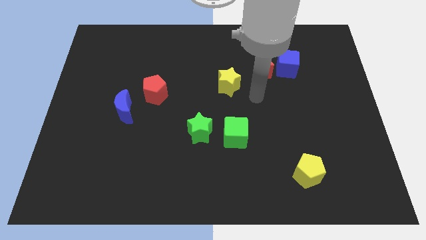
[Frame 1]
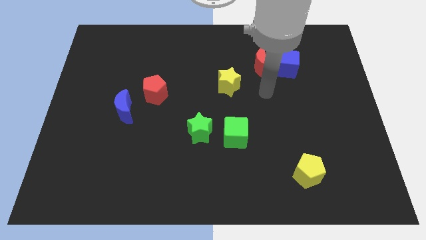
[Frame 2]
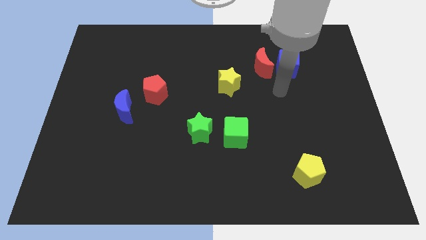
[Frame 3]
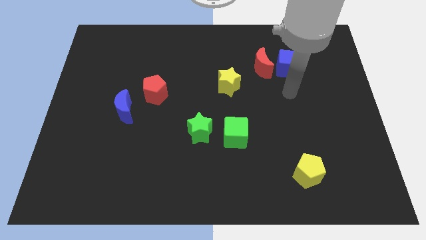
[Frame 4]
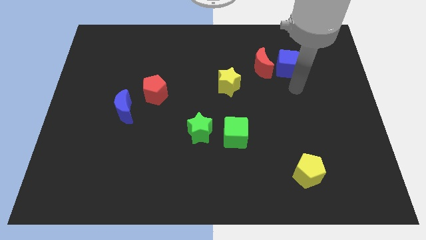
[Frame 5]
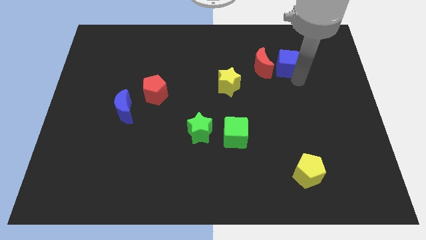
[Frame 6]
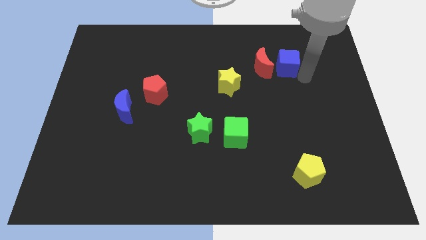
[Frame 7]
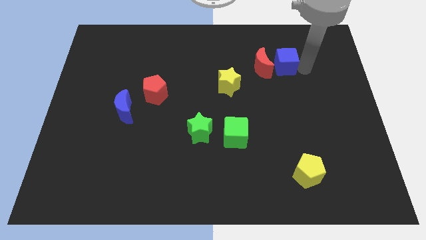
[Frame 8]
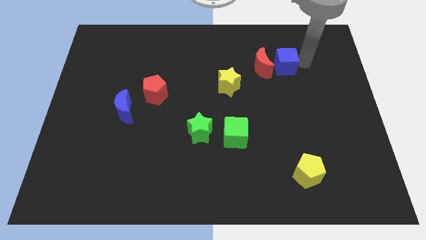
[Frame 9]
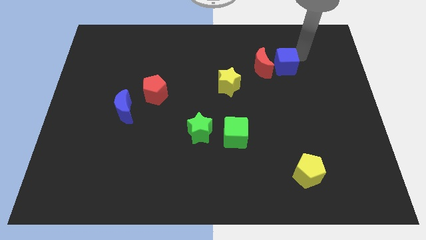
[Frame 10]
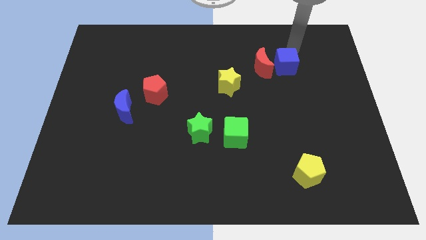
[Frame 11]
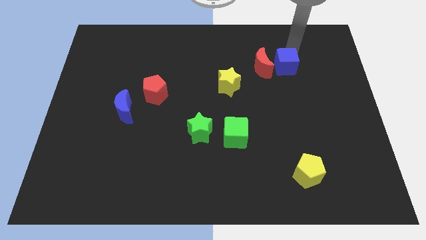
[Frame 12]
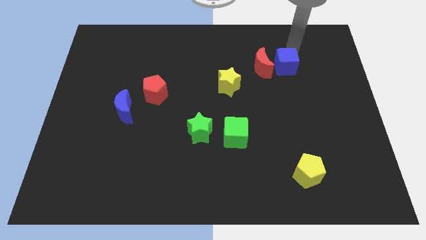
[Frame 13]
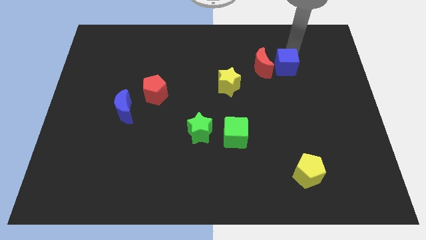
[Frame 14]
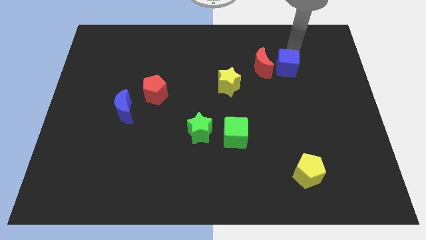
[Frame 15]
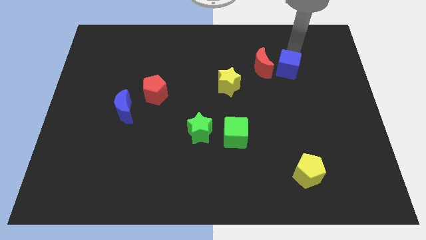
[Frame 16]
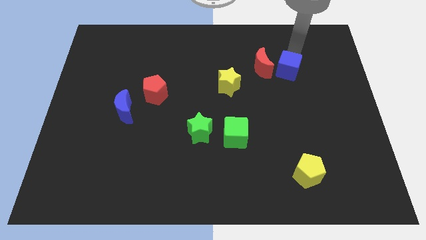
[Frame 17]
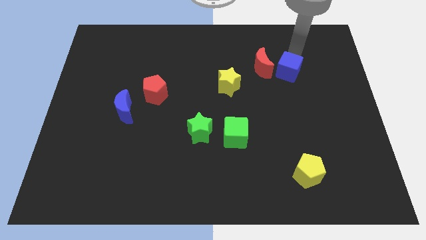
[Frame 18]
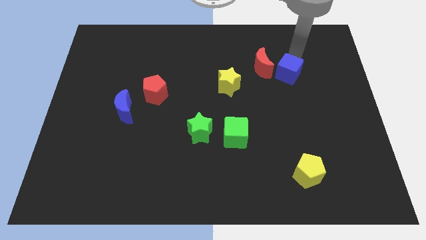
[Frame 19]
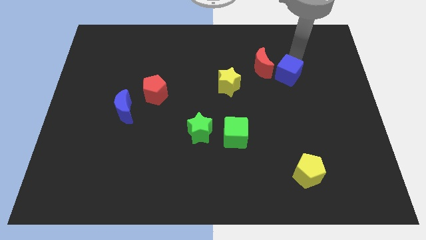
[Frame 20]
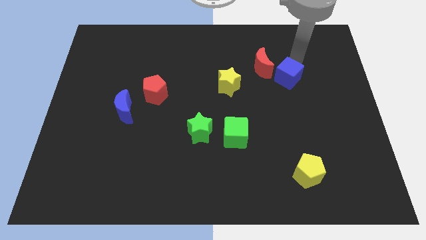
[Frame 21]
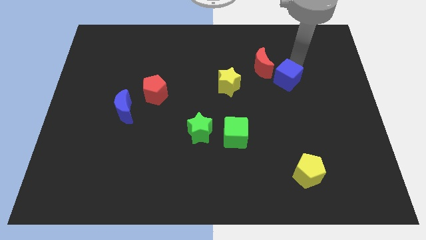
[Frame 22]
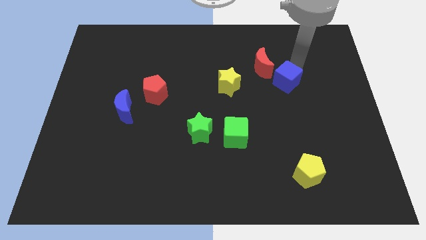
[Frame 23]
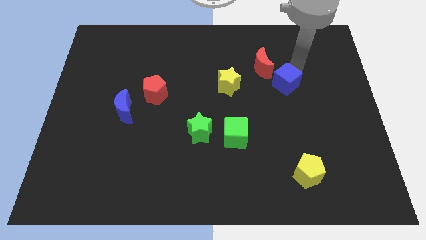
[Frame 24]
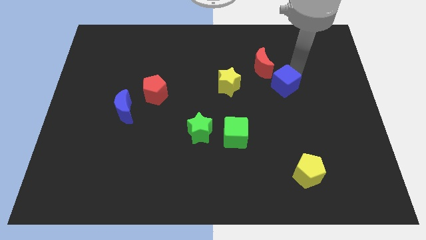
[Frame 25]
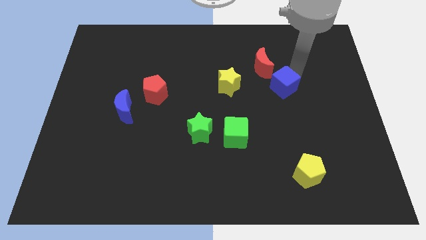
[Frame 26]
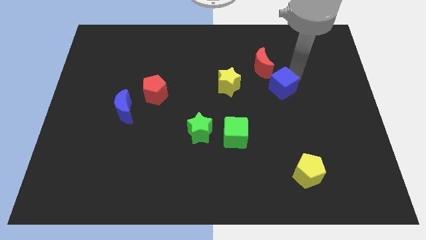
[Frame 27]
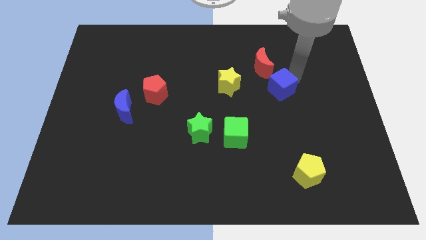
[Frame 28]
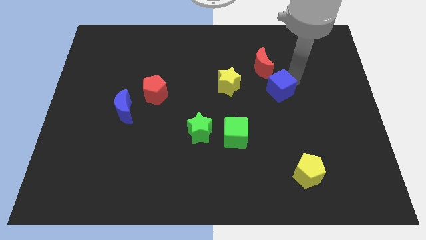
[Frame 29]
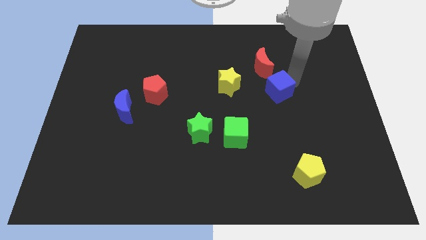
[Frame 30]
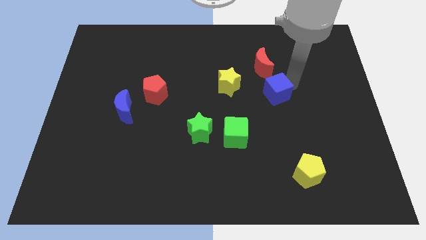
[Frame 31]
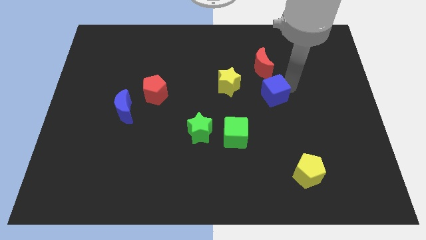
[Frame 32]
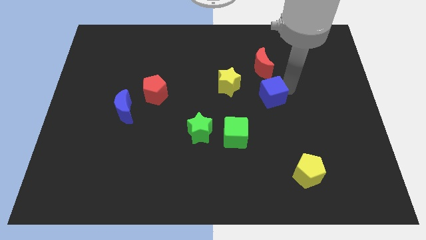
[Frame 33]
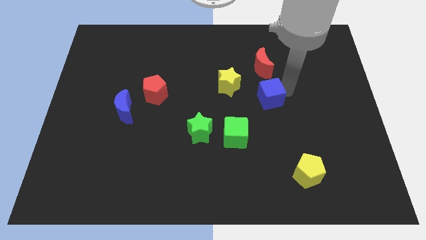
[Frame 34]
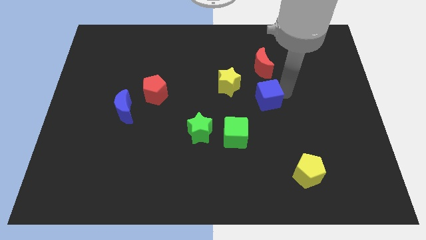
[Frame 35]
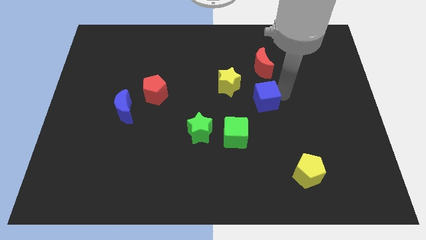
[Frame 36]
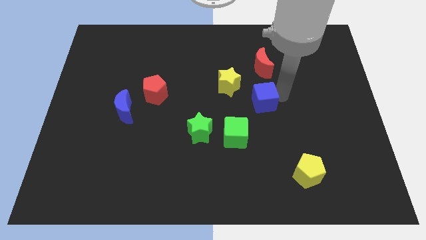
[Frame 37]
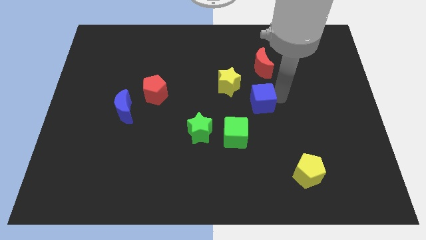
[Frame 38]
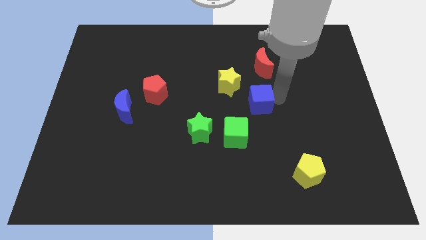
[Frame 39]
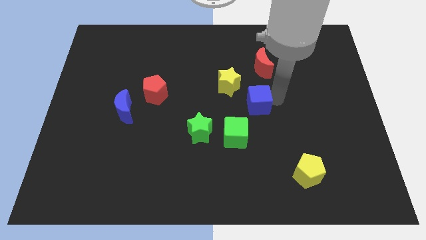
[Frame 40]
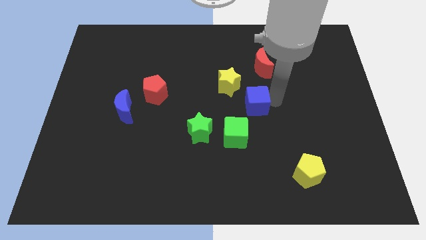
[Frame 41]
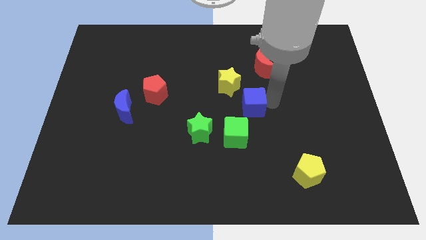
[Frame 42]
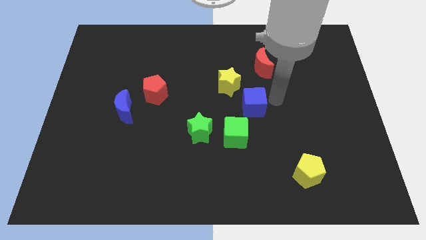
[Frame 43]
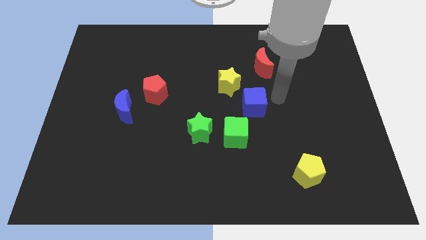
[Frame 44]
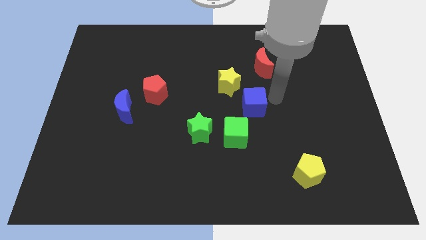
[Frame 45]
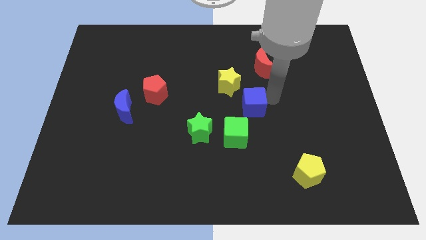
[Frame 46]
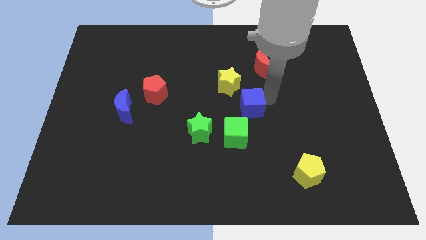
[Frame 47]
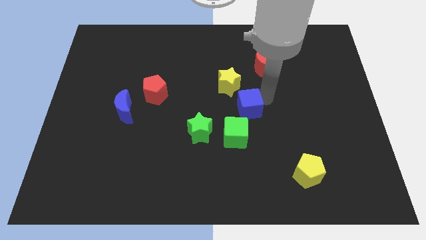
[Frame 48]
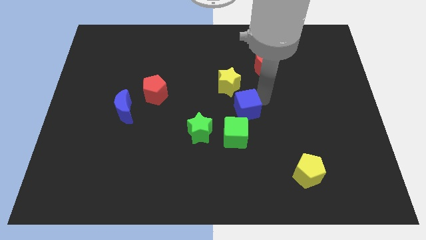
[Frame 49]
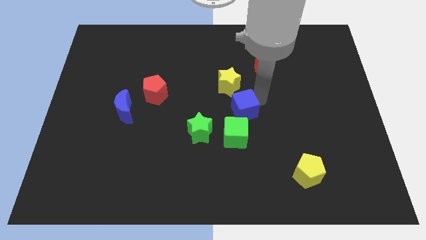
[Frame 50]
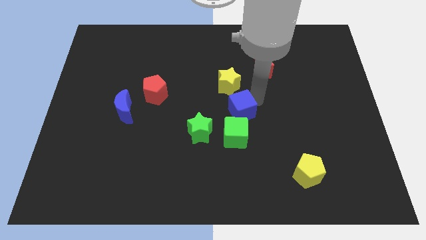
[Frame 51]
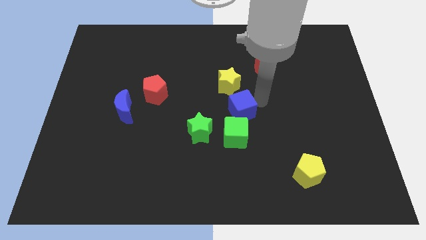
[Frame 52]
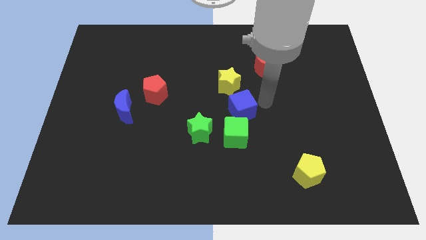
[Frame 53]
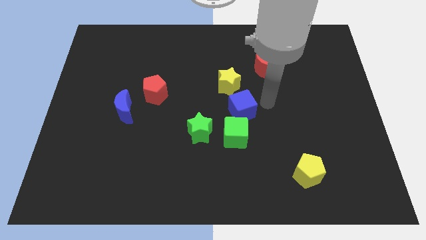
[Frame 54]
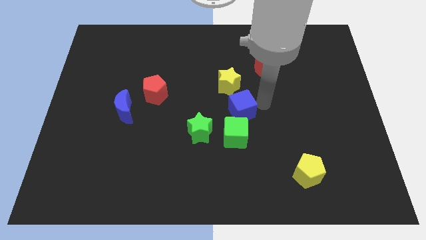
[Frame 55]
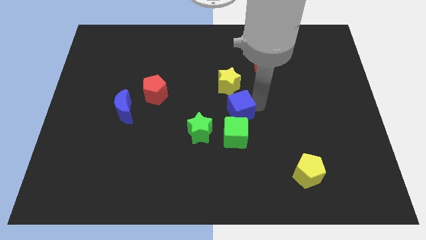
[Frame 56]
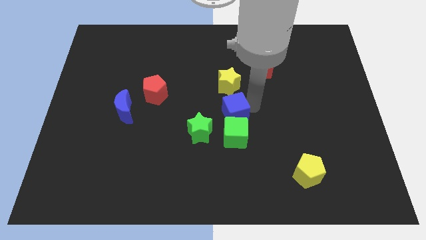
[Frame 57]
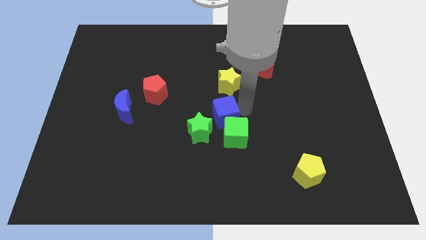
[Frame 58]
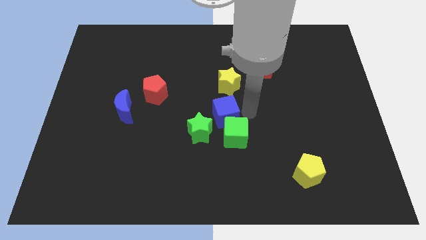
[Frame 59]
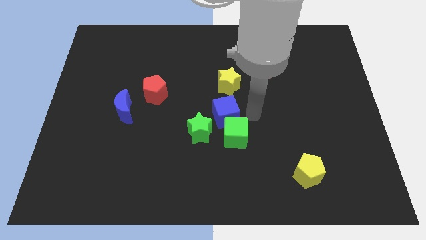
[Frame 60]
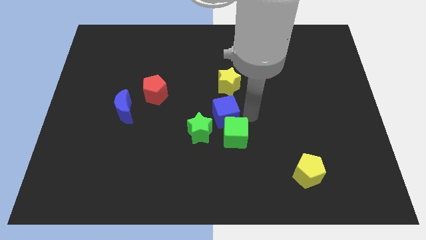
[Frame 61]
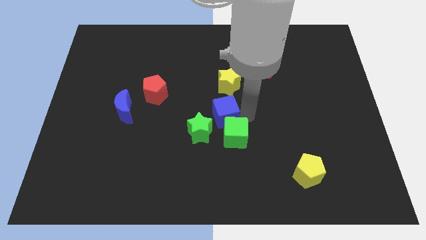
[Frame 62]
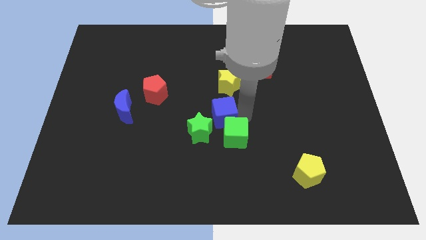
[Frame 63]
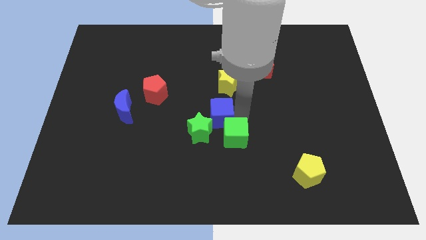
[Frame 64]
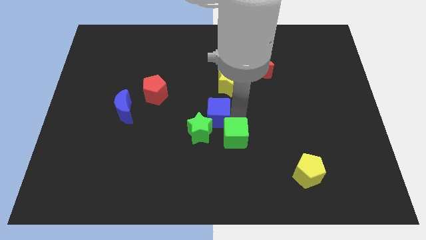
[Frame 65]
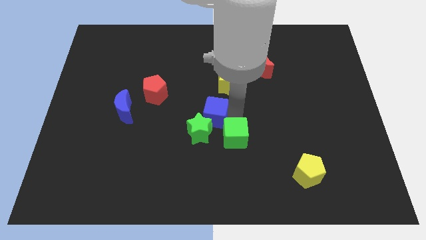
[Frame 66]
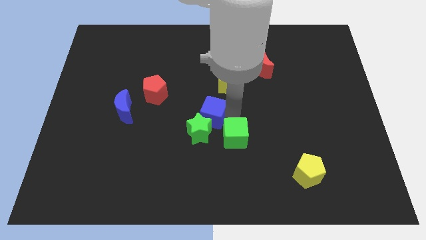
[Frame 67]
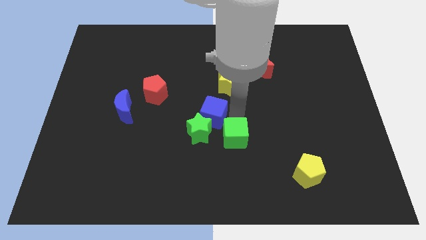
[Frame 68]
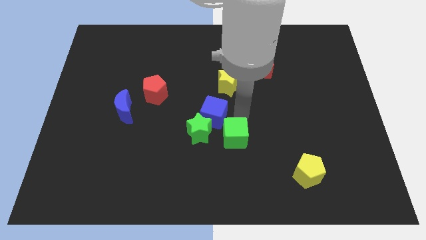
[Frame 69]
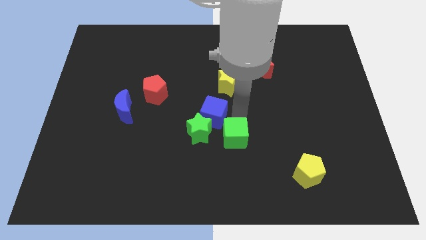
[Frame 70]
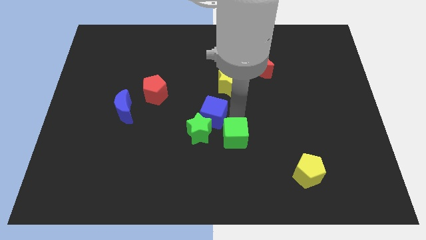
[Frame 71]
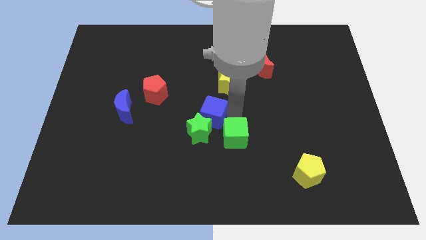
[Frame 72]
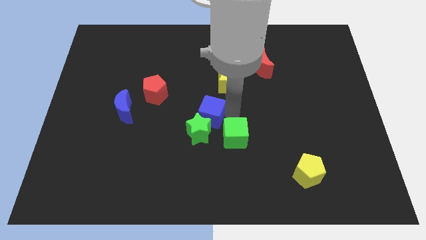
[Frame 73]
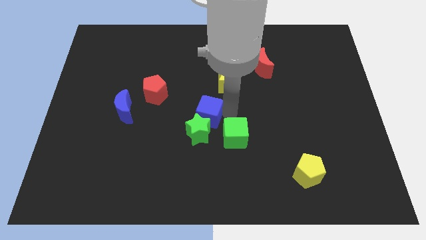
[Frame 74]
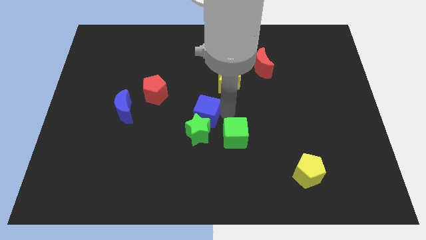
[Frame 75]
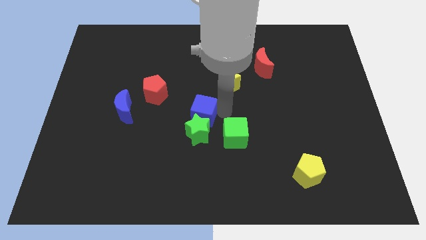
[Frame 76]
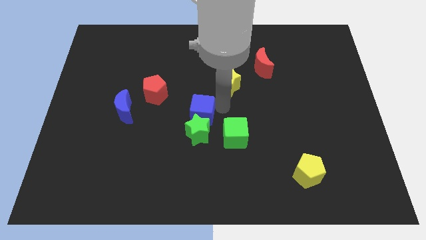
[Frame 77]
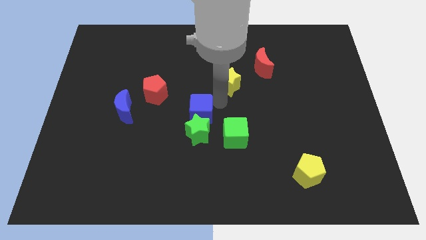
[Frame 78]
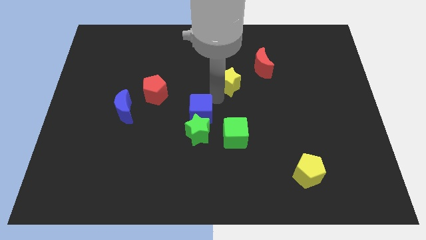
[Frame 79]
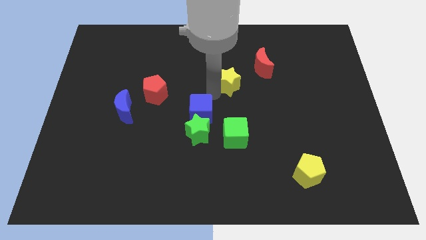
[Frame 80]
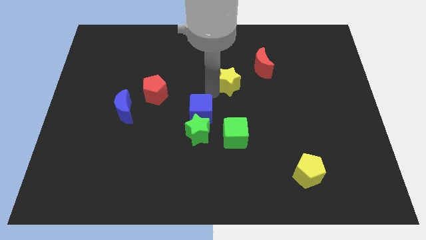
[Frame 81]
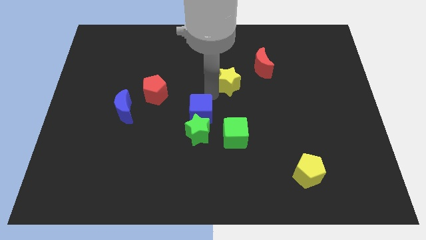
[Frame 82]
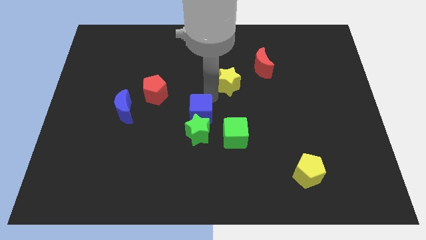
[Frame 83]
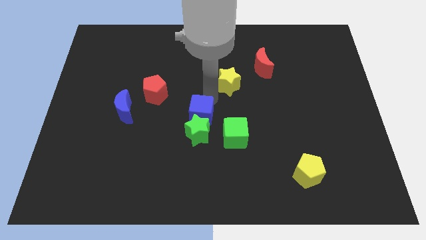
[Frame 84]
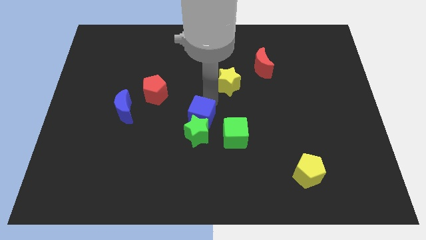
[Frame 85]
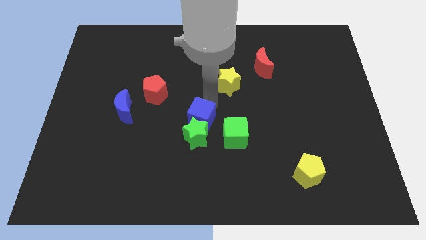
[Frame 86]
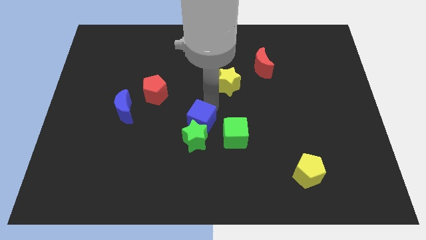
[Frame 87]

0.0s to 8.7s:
slide the blue cube to the left side of the green cube
